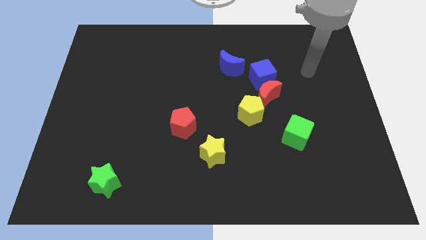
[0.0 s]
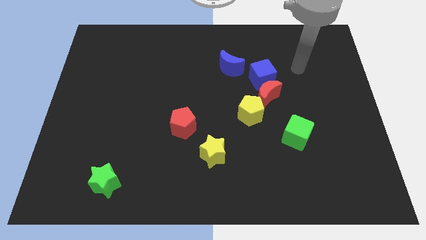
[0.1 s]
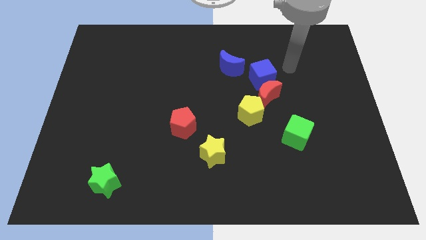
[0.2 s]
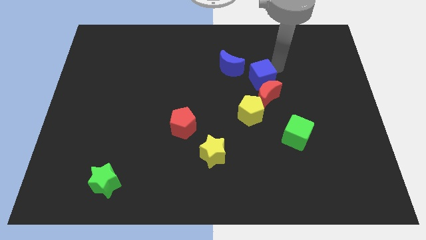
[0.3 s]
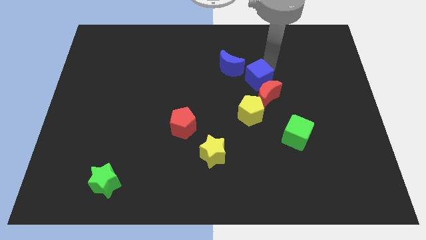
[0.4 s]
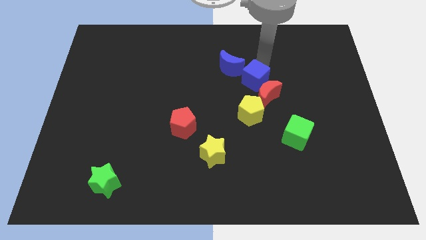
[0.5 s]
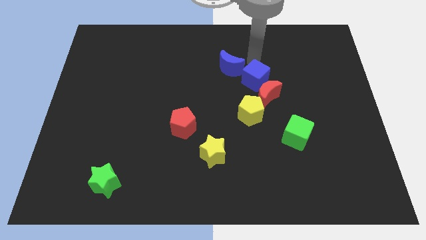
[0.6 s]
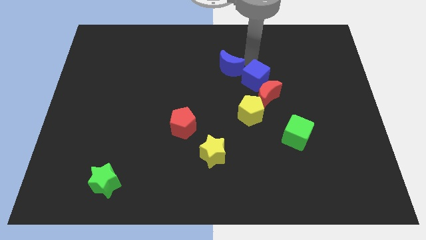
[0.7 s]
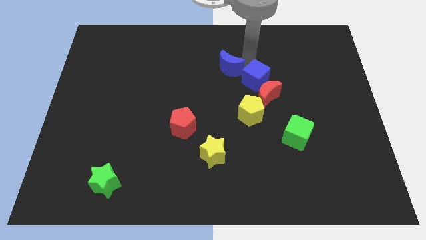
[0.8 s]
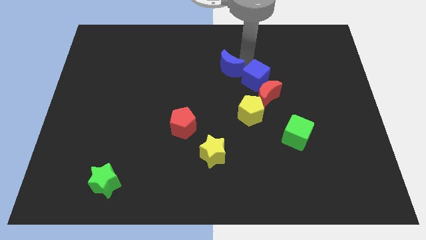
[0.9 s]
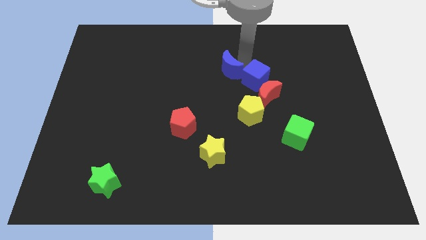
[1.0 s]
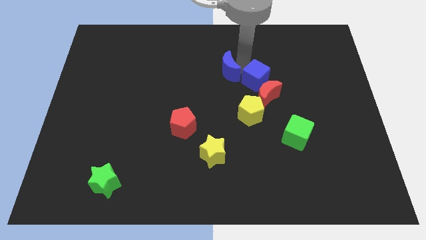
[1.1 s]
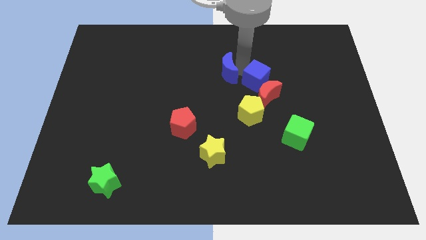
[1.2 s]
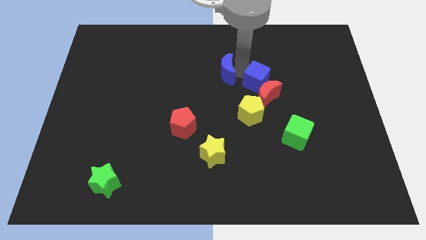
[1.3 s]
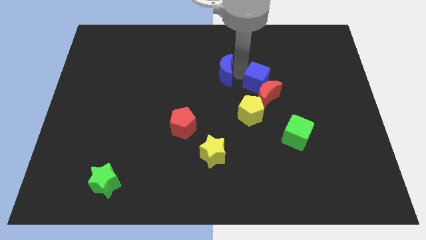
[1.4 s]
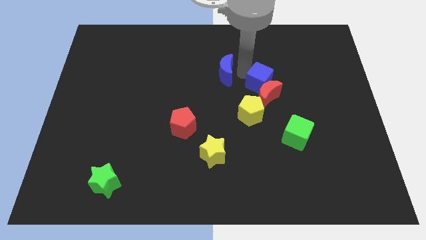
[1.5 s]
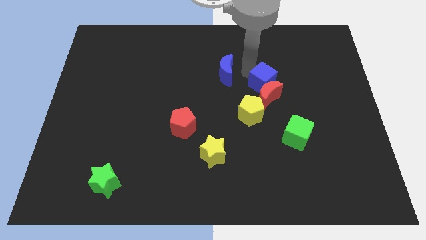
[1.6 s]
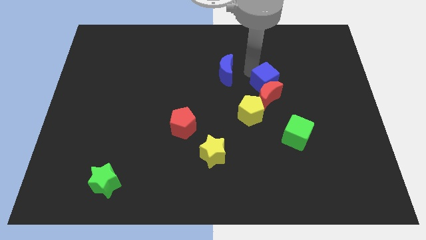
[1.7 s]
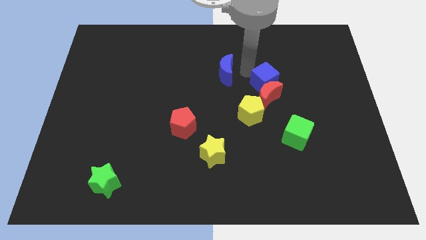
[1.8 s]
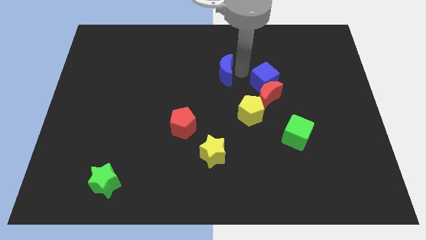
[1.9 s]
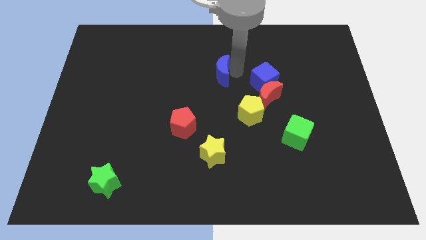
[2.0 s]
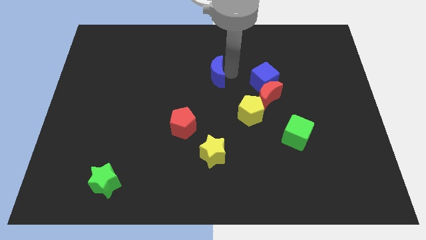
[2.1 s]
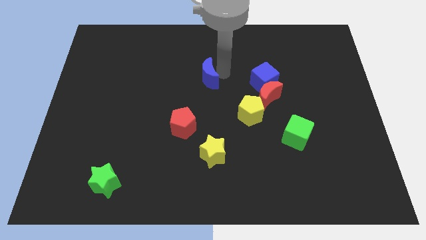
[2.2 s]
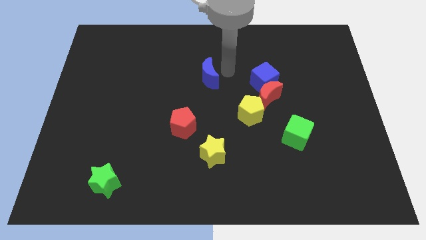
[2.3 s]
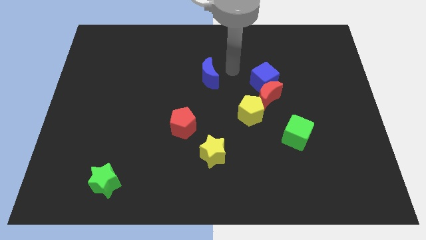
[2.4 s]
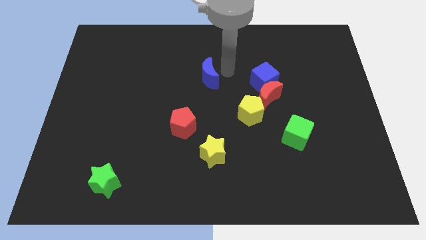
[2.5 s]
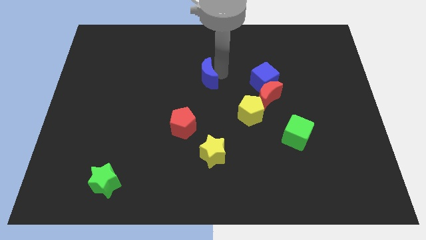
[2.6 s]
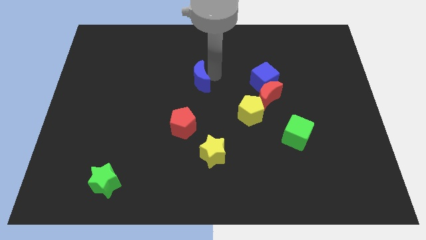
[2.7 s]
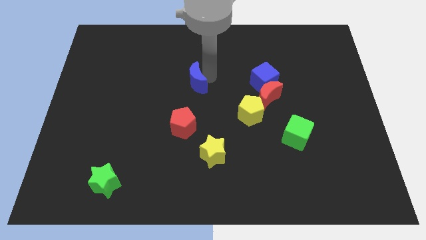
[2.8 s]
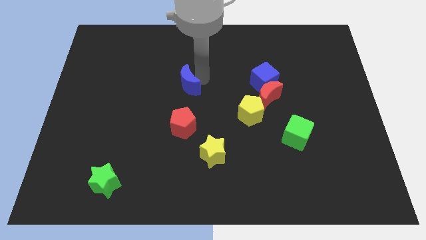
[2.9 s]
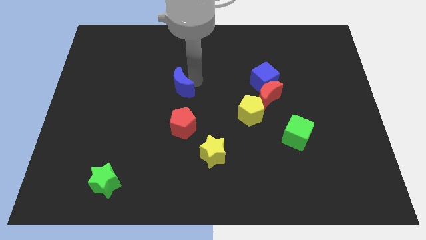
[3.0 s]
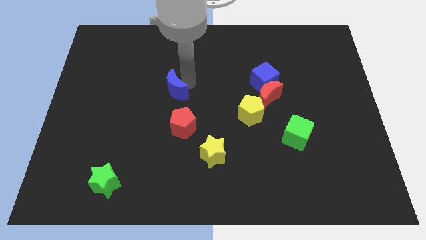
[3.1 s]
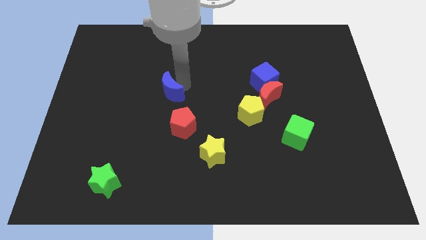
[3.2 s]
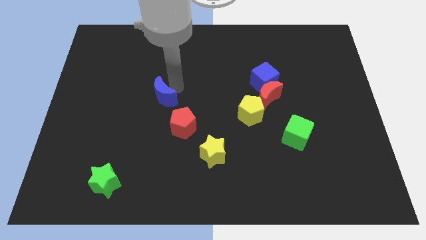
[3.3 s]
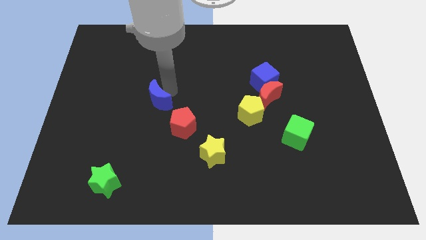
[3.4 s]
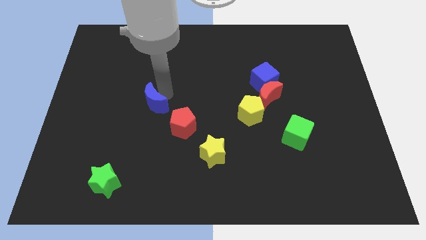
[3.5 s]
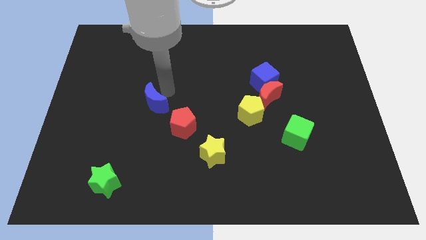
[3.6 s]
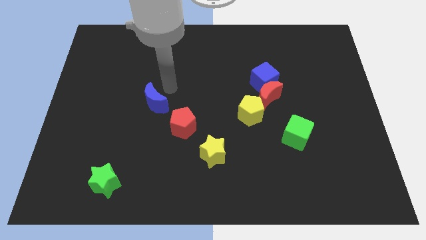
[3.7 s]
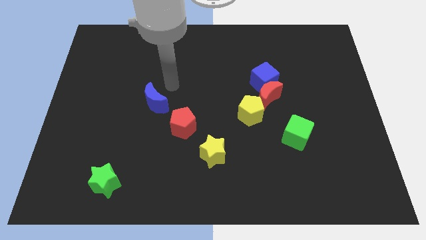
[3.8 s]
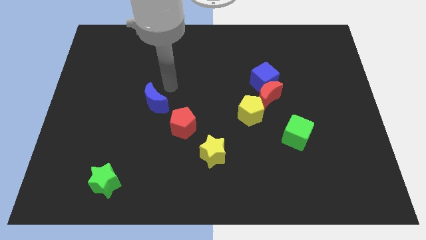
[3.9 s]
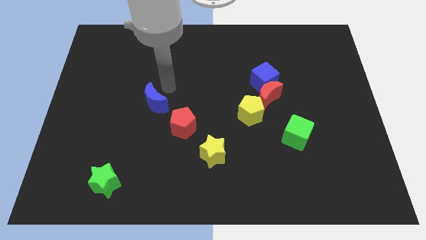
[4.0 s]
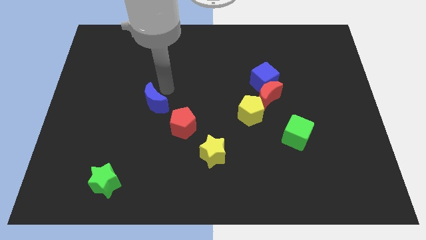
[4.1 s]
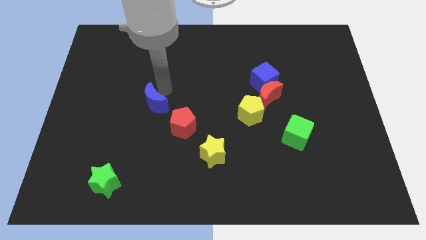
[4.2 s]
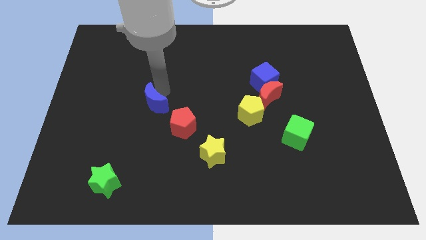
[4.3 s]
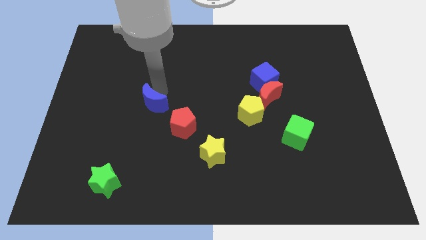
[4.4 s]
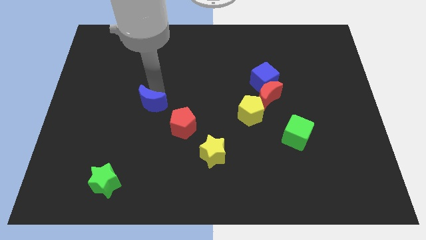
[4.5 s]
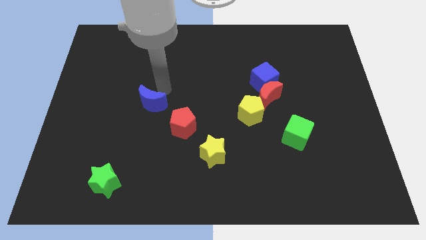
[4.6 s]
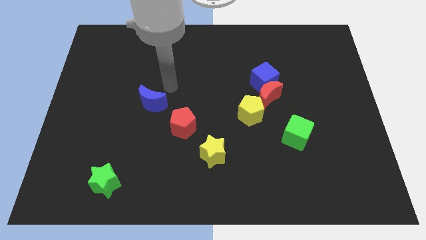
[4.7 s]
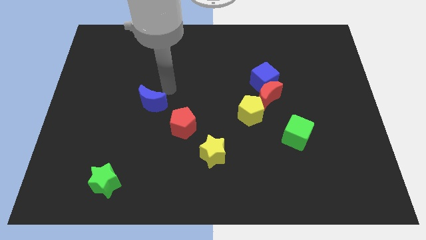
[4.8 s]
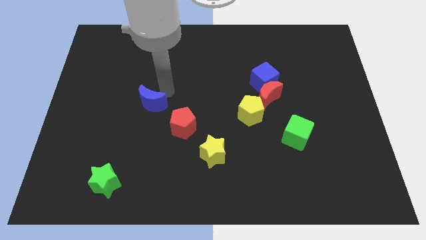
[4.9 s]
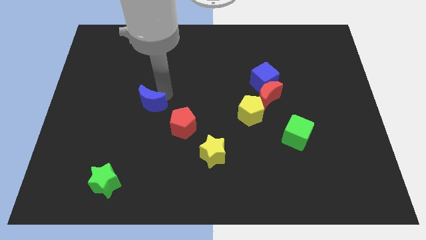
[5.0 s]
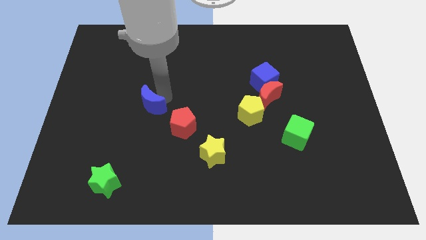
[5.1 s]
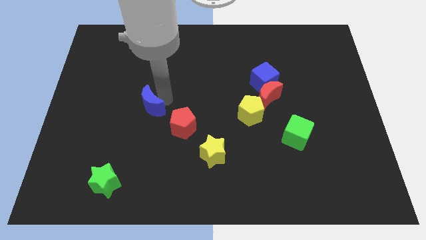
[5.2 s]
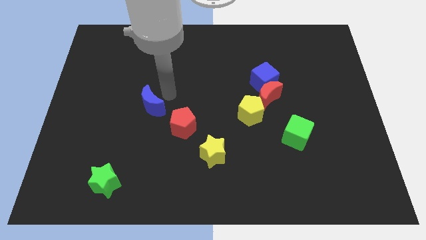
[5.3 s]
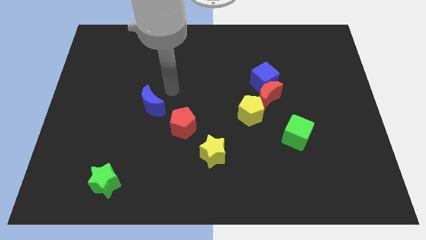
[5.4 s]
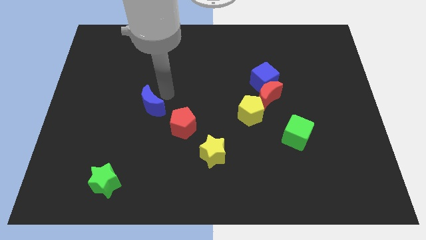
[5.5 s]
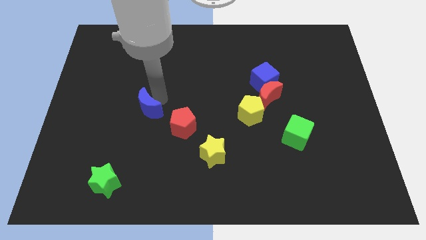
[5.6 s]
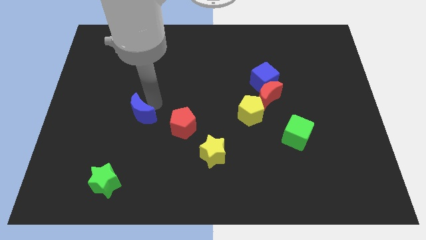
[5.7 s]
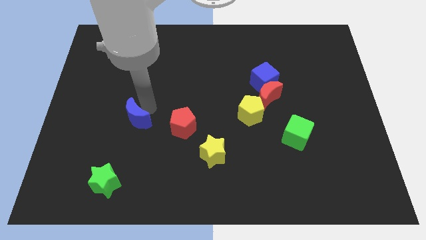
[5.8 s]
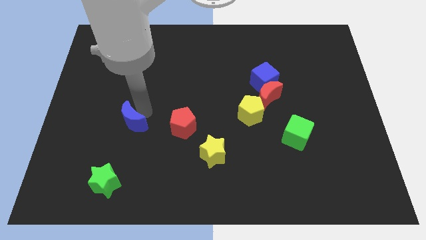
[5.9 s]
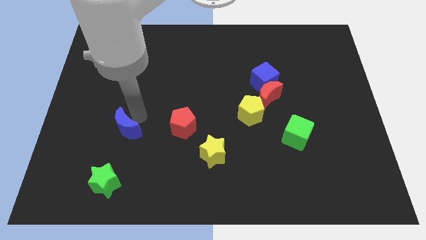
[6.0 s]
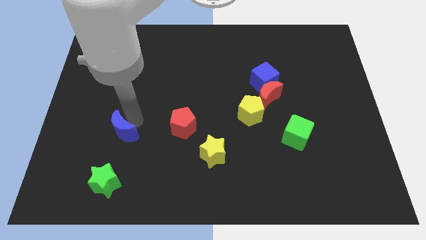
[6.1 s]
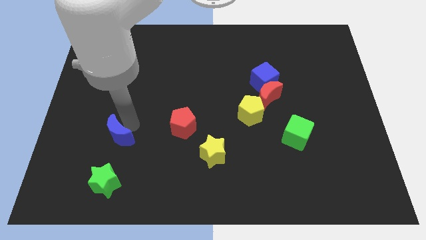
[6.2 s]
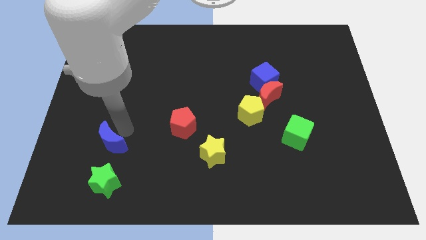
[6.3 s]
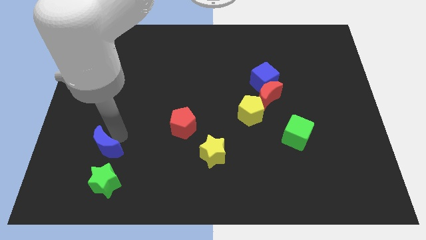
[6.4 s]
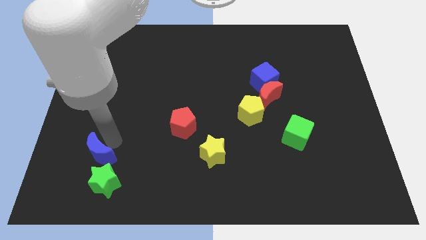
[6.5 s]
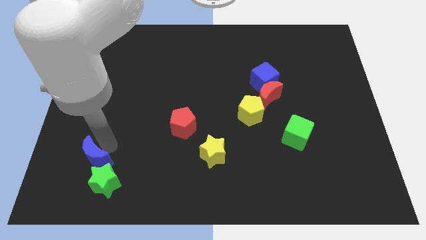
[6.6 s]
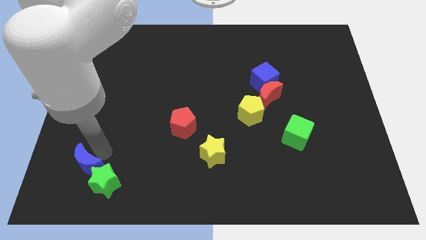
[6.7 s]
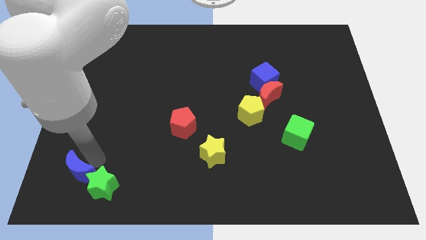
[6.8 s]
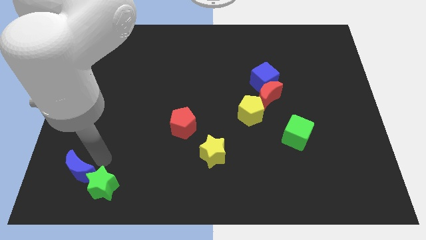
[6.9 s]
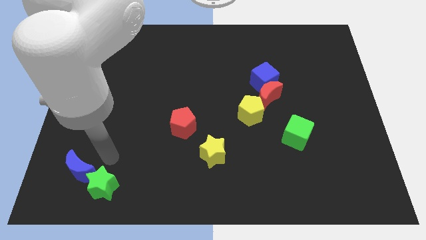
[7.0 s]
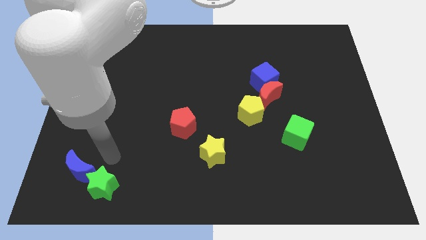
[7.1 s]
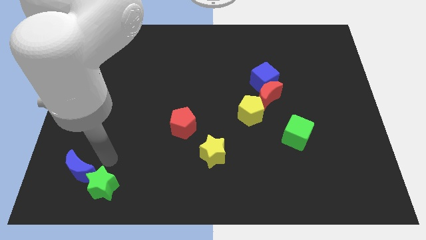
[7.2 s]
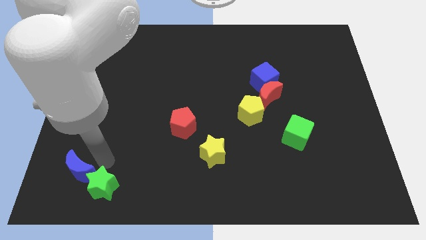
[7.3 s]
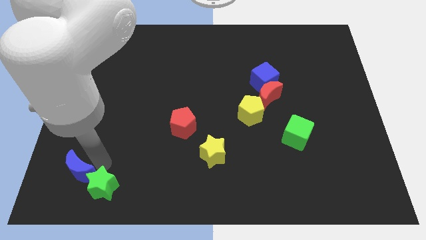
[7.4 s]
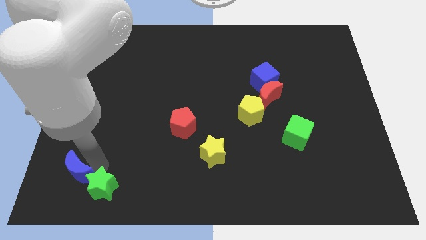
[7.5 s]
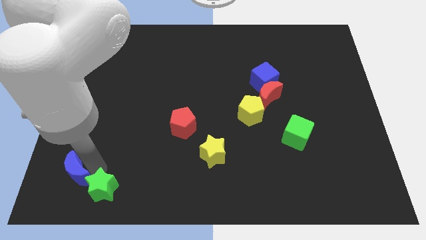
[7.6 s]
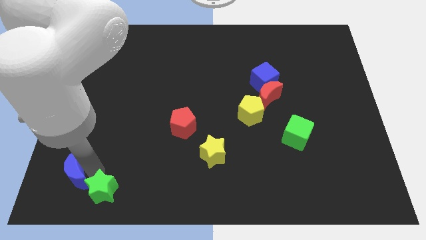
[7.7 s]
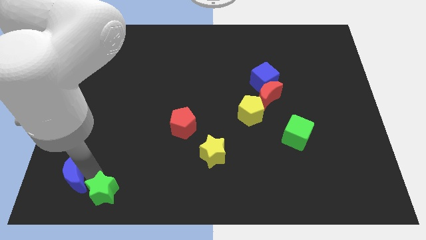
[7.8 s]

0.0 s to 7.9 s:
move the blue moon to the bottom left
